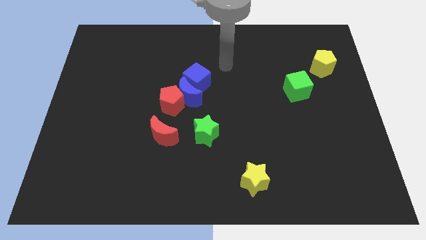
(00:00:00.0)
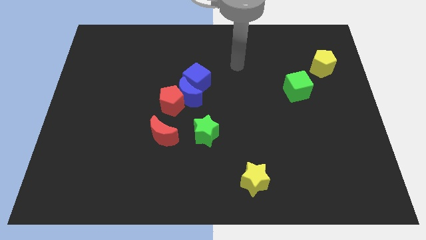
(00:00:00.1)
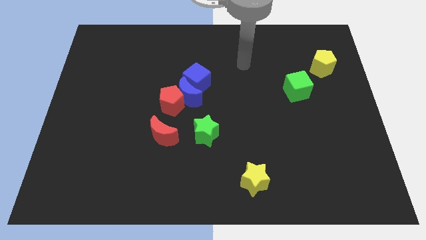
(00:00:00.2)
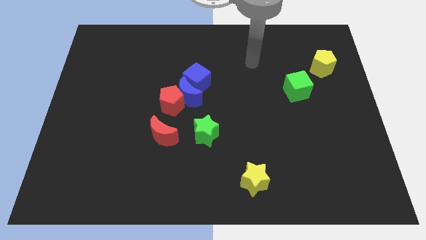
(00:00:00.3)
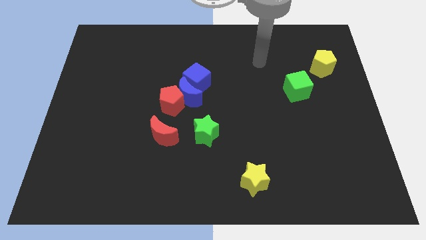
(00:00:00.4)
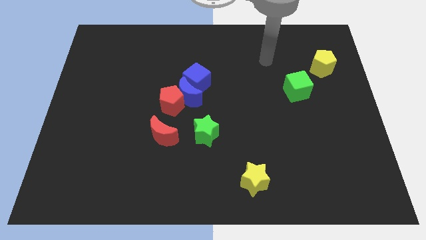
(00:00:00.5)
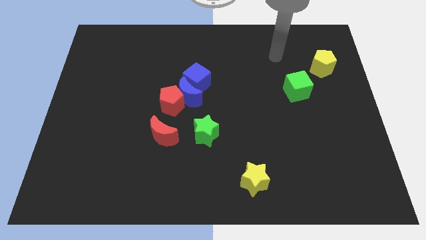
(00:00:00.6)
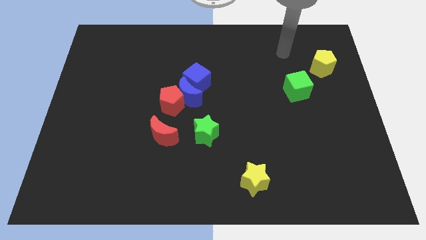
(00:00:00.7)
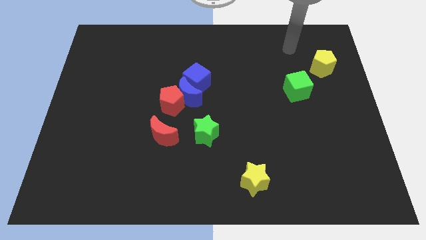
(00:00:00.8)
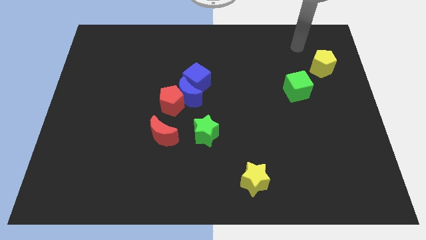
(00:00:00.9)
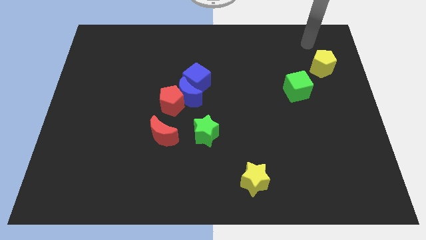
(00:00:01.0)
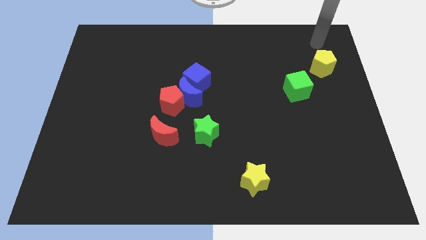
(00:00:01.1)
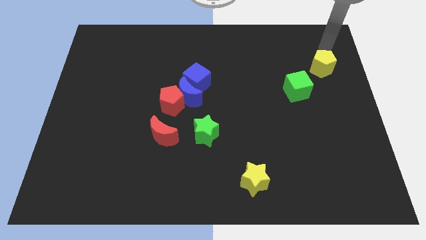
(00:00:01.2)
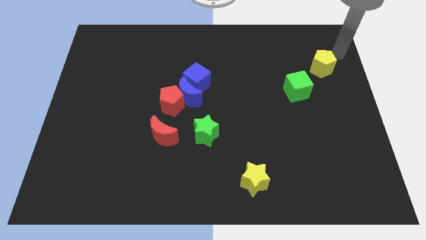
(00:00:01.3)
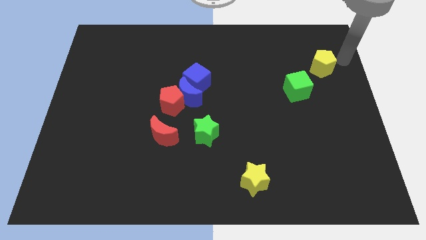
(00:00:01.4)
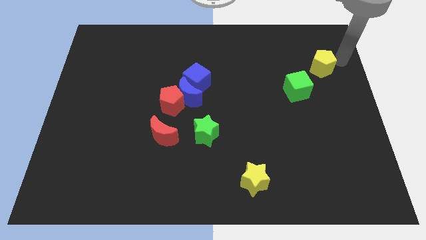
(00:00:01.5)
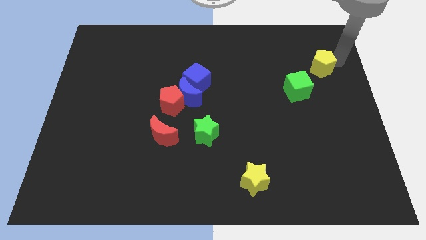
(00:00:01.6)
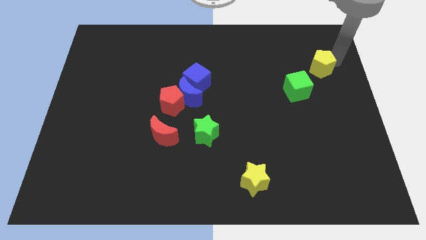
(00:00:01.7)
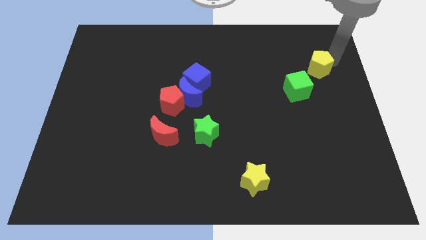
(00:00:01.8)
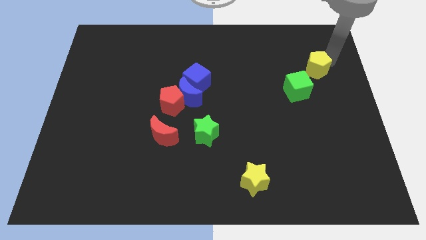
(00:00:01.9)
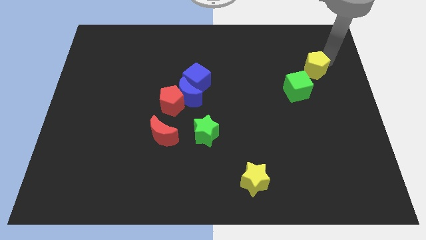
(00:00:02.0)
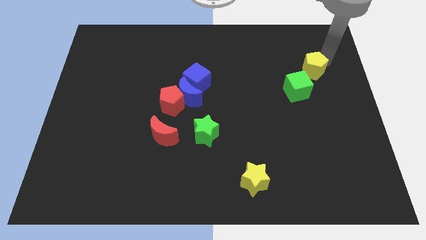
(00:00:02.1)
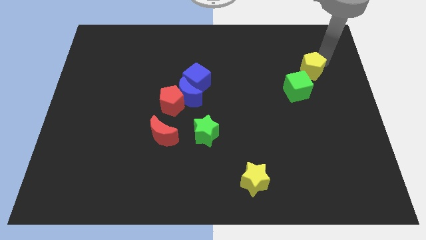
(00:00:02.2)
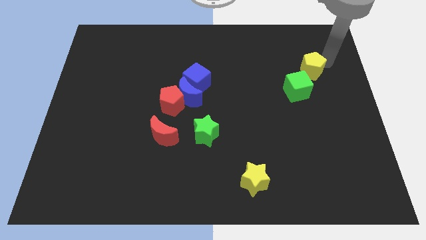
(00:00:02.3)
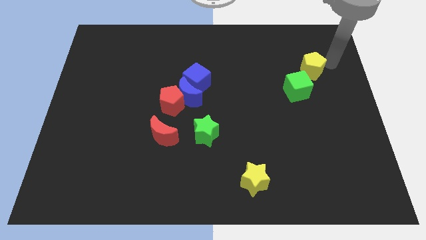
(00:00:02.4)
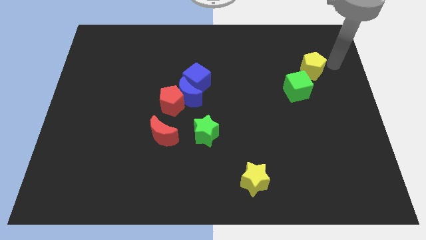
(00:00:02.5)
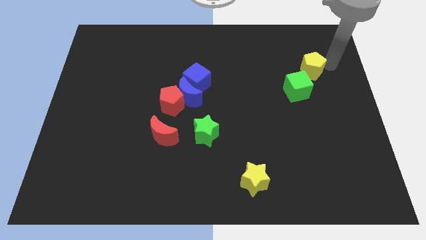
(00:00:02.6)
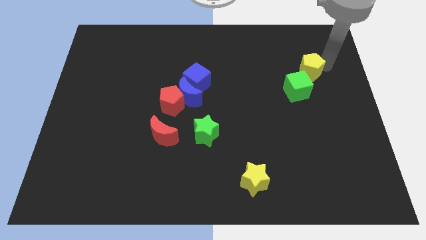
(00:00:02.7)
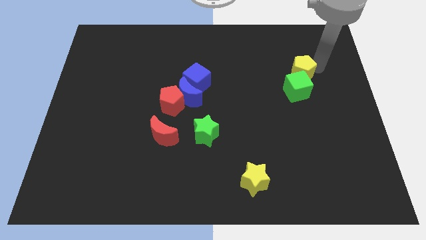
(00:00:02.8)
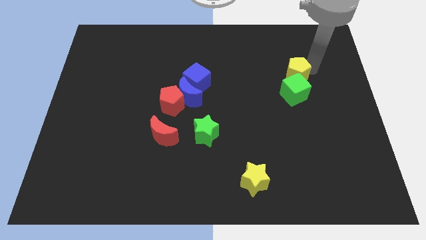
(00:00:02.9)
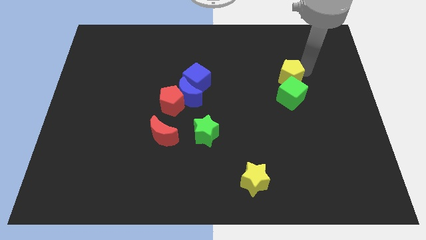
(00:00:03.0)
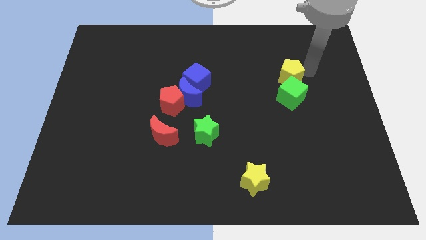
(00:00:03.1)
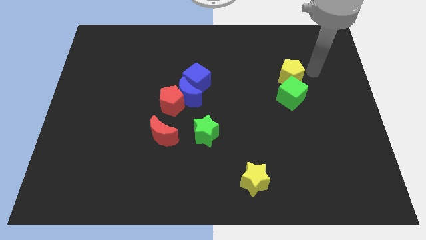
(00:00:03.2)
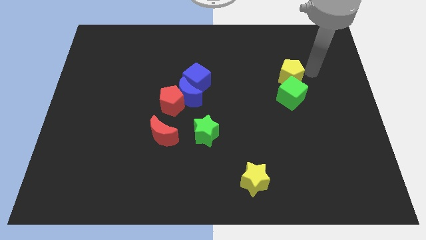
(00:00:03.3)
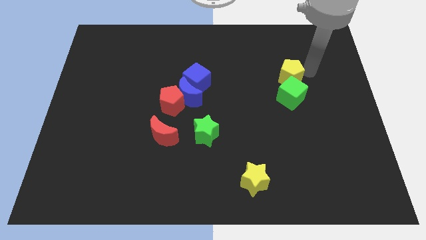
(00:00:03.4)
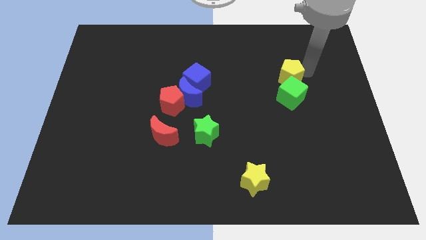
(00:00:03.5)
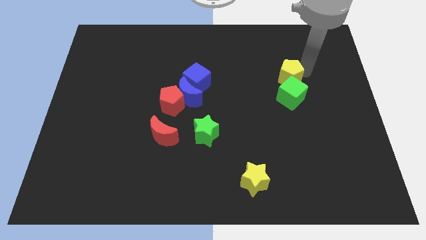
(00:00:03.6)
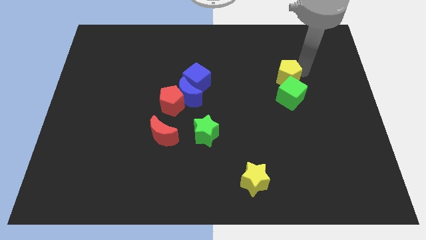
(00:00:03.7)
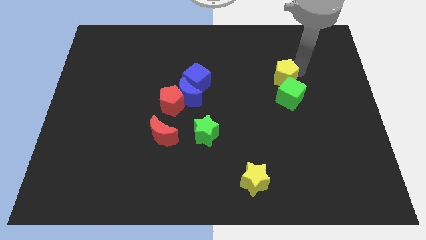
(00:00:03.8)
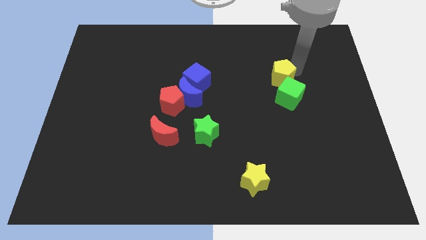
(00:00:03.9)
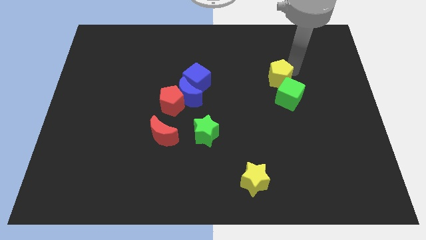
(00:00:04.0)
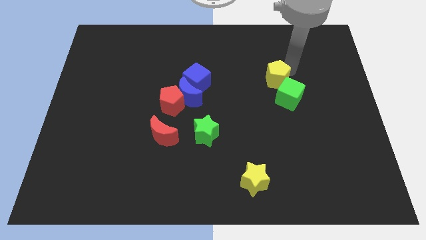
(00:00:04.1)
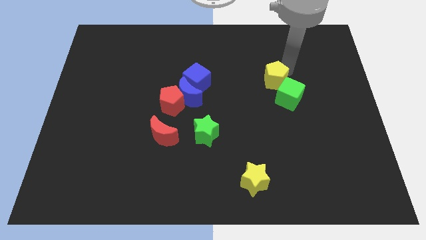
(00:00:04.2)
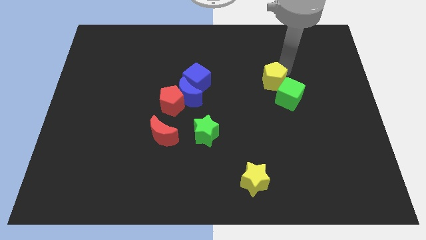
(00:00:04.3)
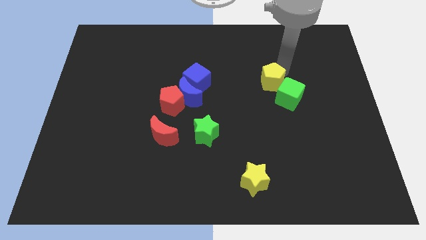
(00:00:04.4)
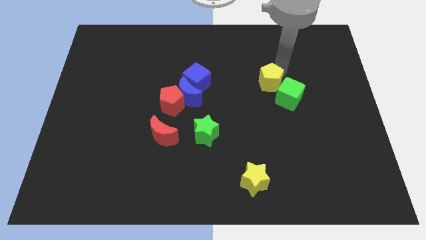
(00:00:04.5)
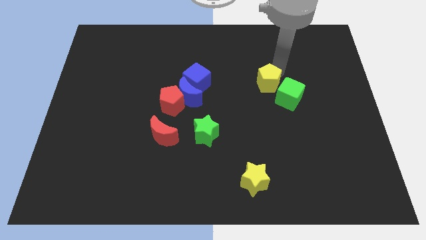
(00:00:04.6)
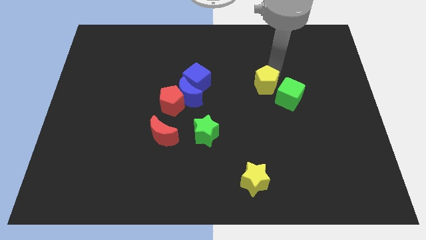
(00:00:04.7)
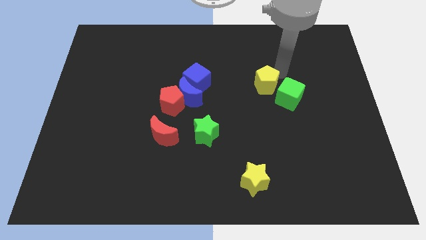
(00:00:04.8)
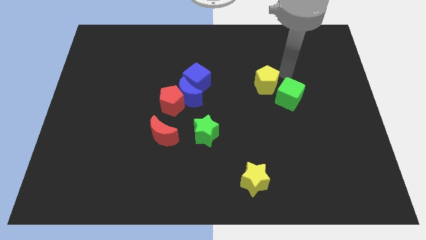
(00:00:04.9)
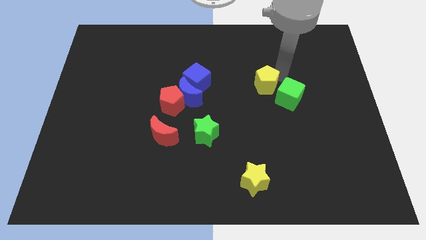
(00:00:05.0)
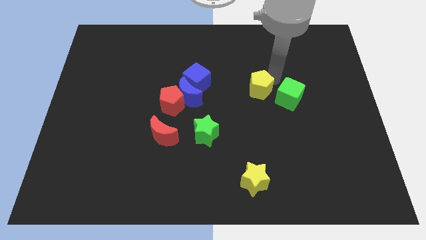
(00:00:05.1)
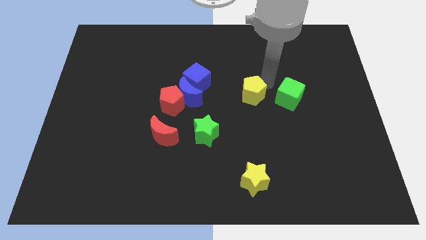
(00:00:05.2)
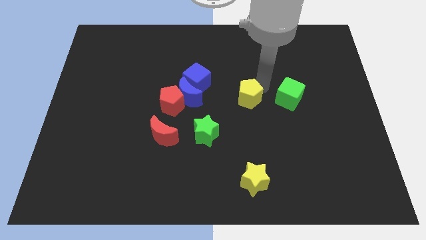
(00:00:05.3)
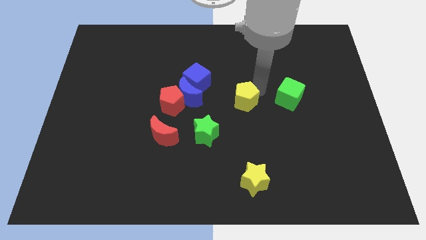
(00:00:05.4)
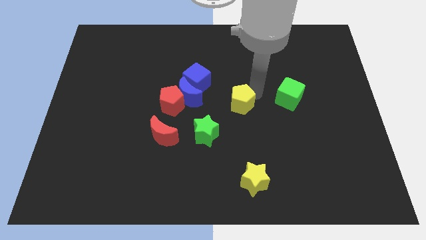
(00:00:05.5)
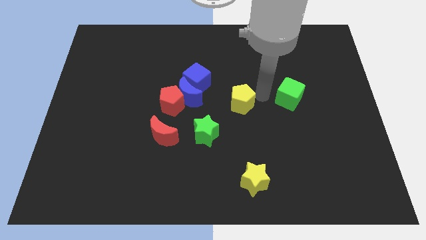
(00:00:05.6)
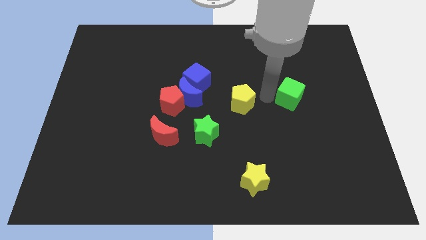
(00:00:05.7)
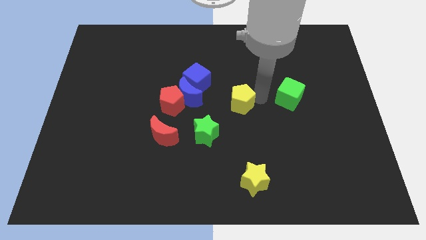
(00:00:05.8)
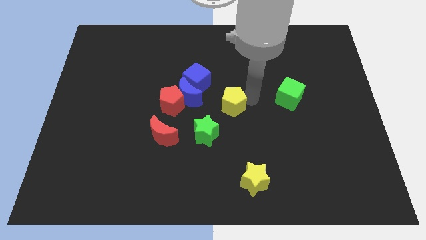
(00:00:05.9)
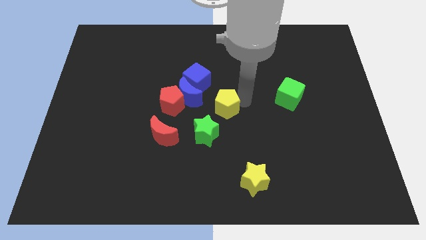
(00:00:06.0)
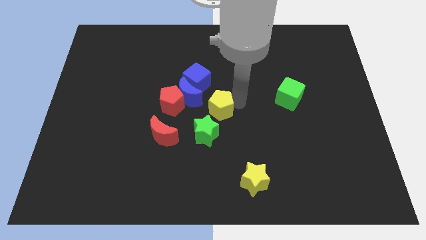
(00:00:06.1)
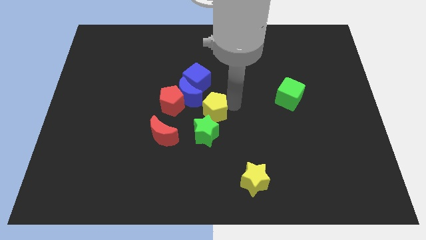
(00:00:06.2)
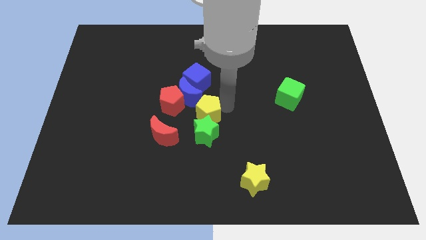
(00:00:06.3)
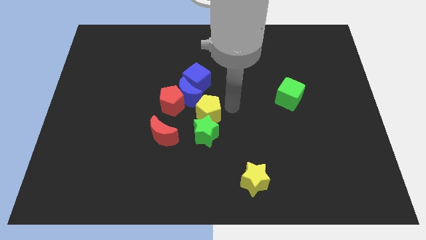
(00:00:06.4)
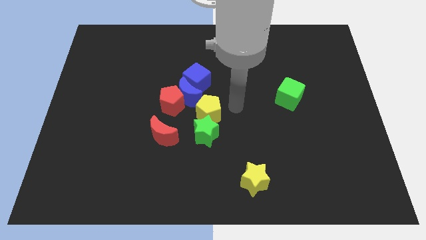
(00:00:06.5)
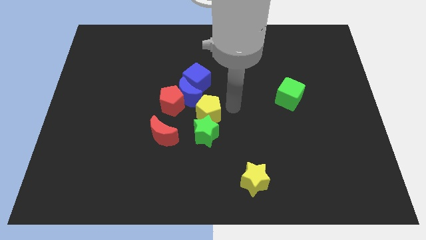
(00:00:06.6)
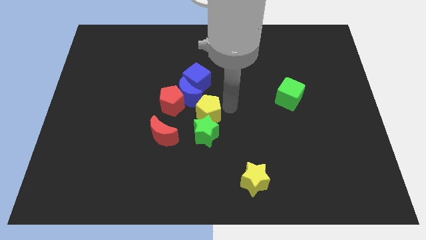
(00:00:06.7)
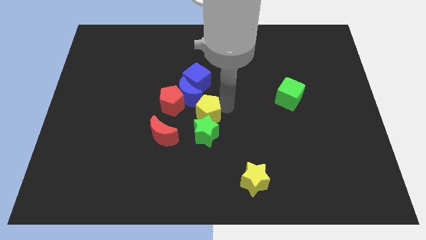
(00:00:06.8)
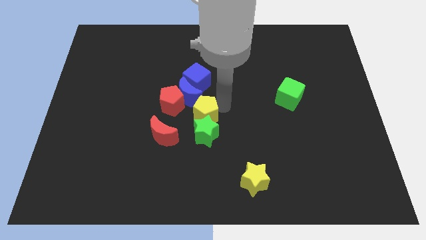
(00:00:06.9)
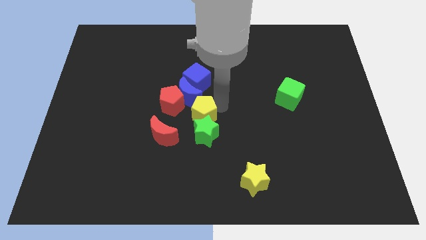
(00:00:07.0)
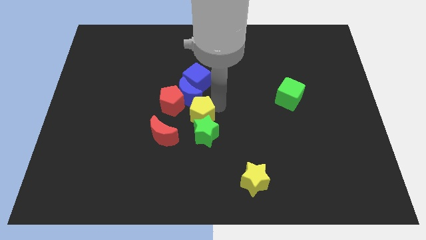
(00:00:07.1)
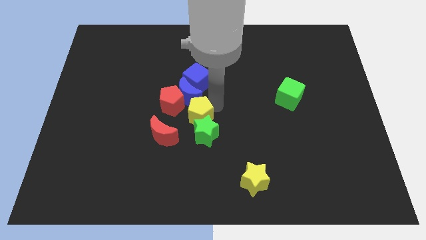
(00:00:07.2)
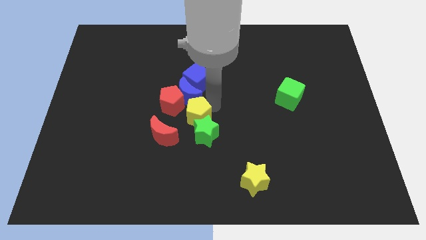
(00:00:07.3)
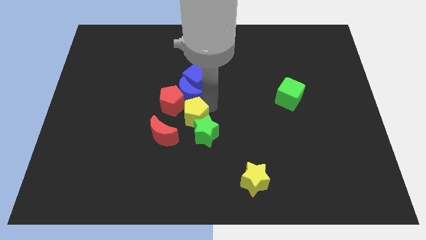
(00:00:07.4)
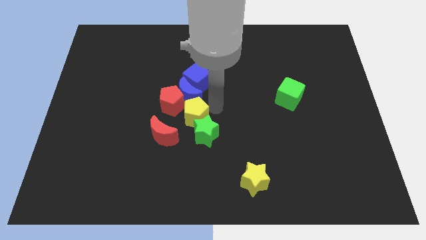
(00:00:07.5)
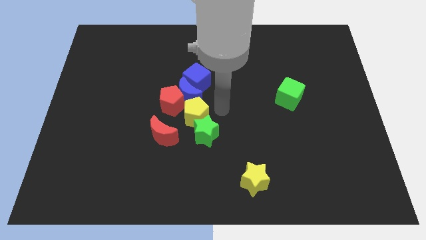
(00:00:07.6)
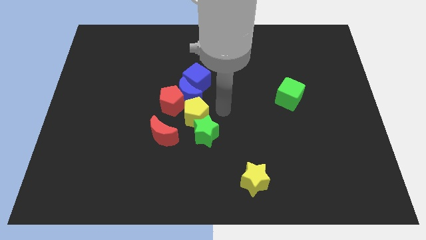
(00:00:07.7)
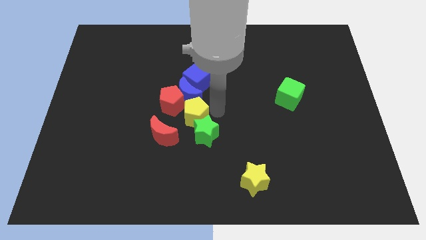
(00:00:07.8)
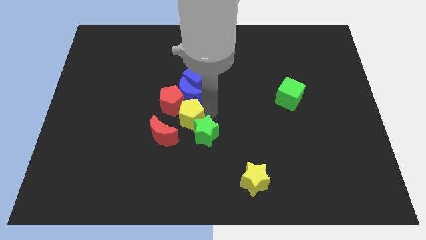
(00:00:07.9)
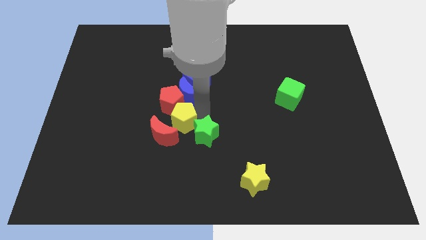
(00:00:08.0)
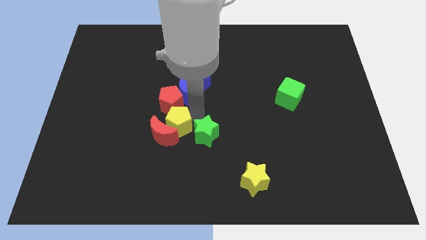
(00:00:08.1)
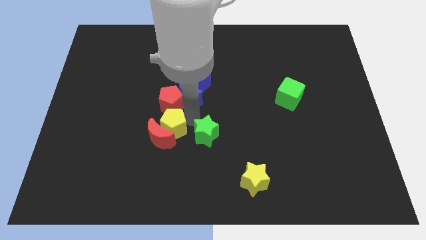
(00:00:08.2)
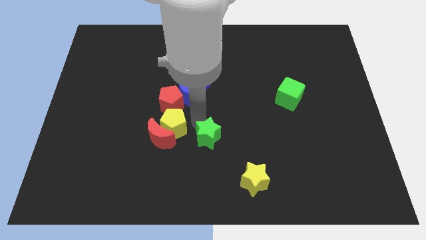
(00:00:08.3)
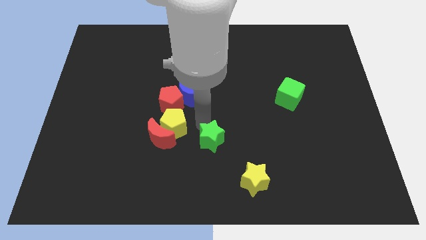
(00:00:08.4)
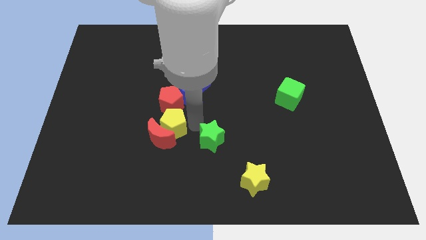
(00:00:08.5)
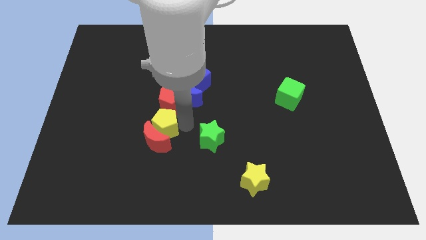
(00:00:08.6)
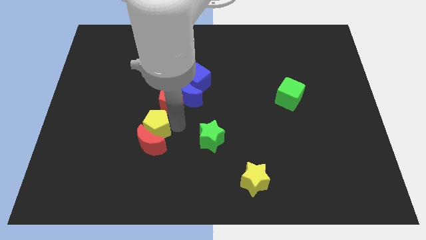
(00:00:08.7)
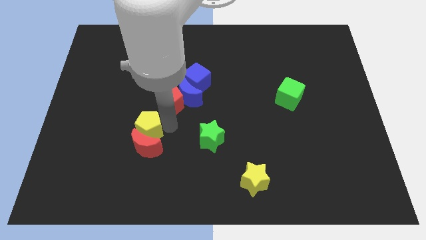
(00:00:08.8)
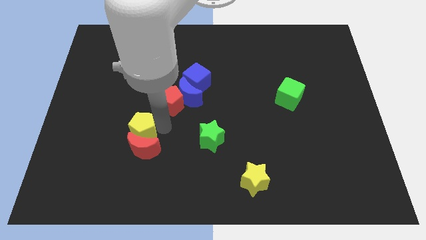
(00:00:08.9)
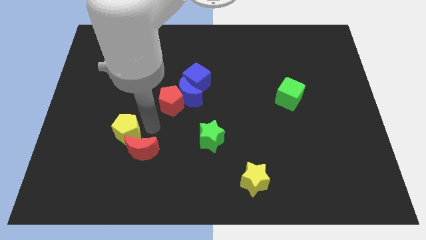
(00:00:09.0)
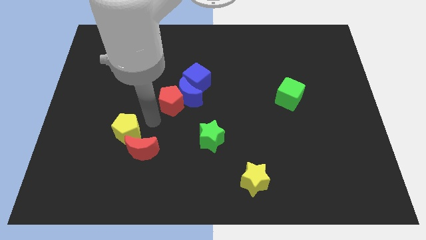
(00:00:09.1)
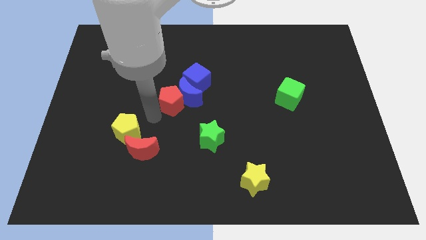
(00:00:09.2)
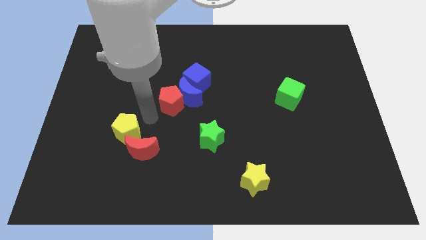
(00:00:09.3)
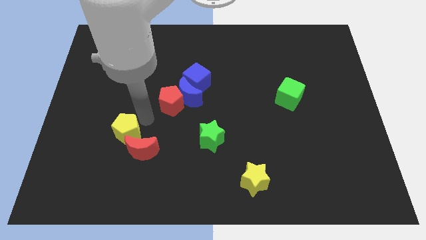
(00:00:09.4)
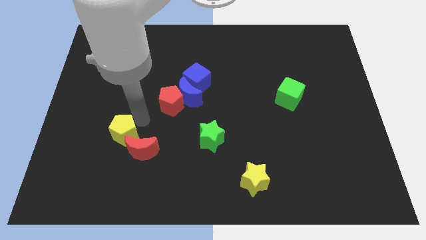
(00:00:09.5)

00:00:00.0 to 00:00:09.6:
slide the yellow pentagon to the left side of the red moon
